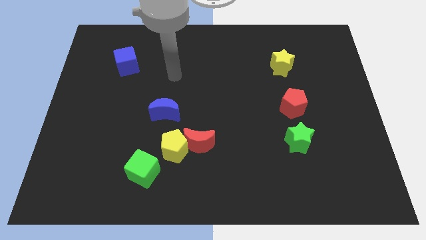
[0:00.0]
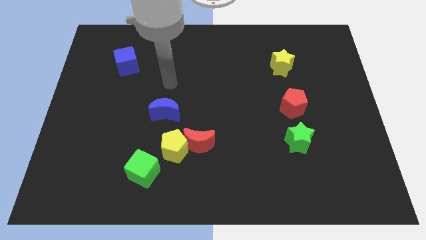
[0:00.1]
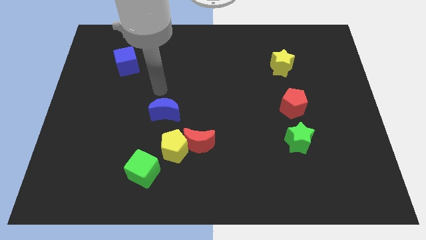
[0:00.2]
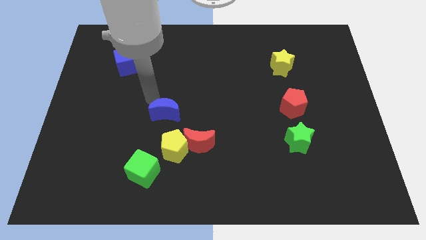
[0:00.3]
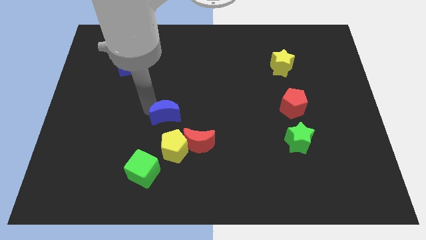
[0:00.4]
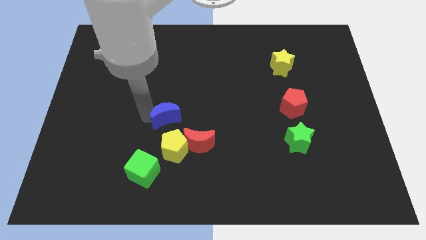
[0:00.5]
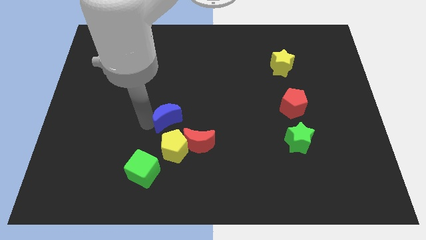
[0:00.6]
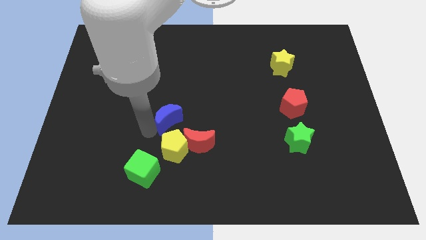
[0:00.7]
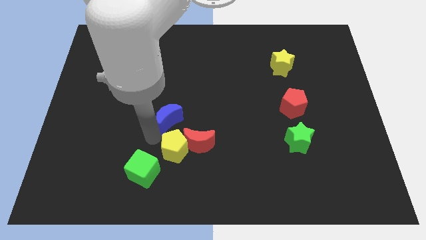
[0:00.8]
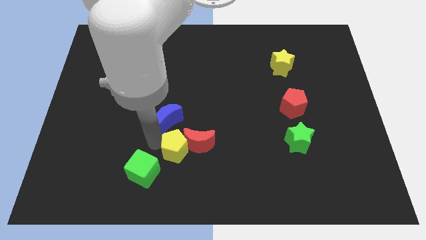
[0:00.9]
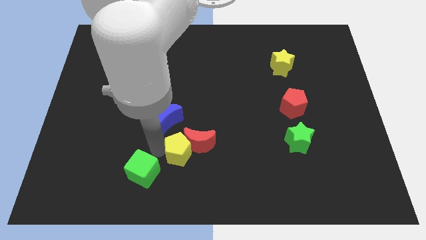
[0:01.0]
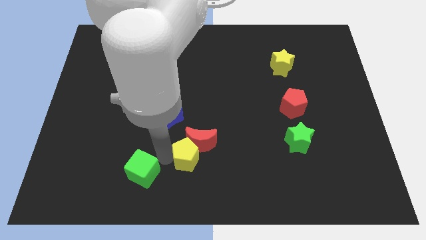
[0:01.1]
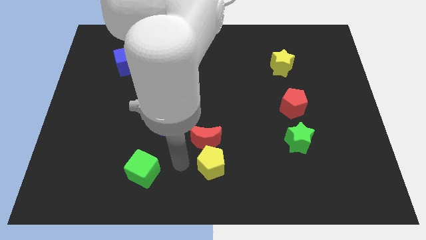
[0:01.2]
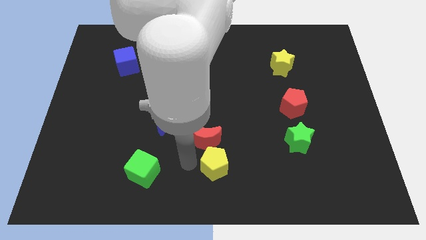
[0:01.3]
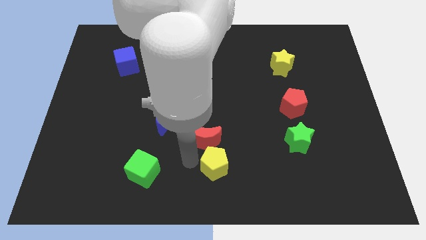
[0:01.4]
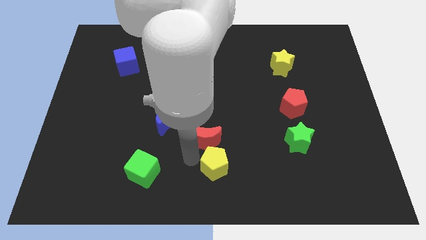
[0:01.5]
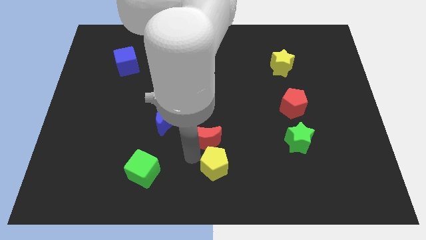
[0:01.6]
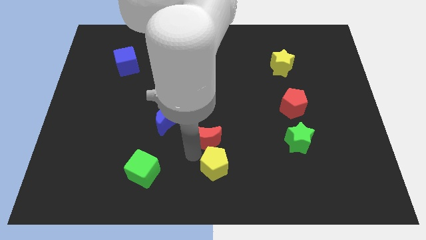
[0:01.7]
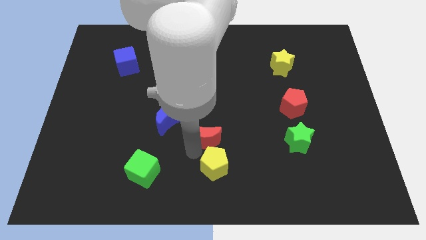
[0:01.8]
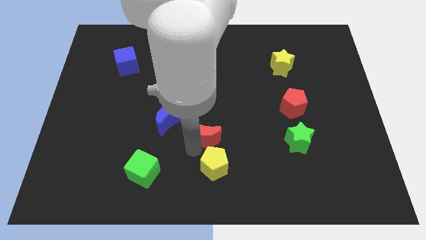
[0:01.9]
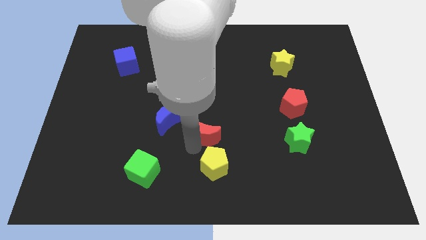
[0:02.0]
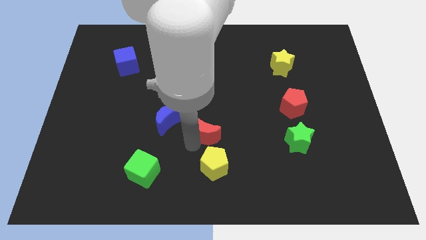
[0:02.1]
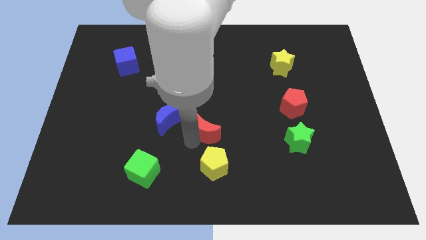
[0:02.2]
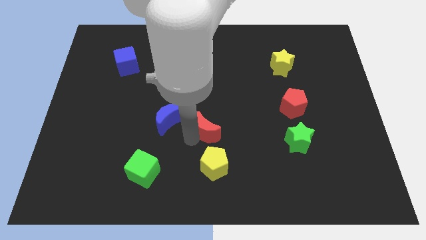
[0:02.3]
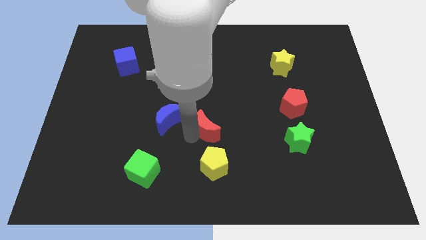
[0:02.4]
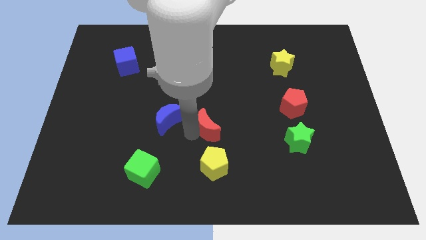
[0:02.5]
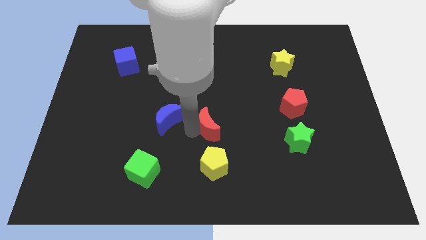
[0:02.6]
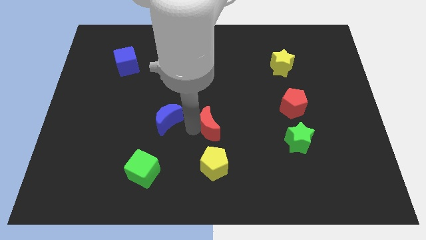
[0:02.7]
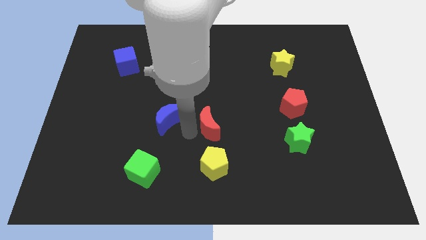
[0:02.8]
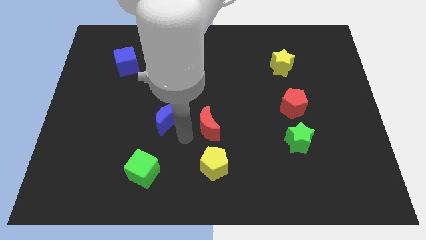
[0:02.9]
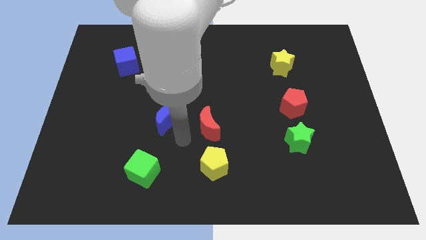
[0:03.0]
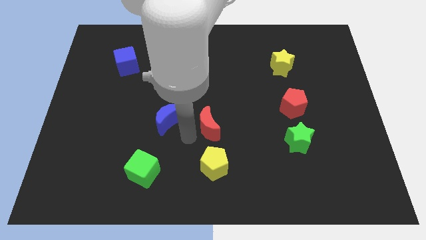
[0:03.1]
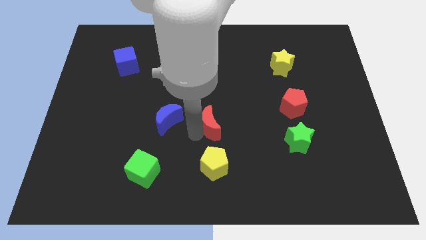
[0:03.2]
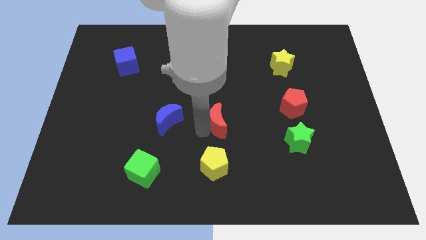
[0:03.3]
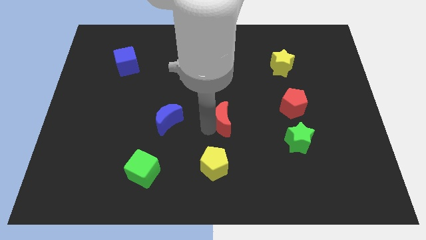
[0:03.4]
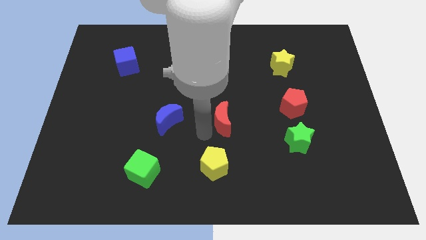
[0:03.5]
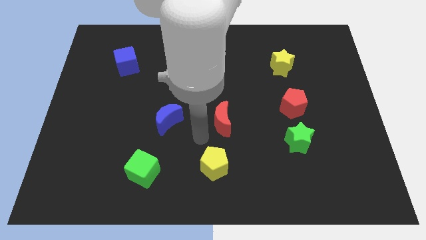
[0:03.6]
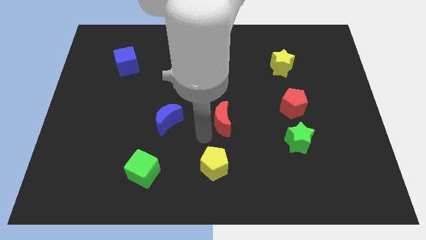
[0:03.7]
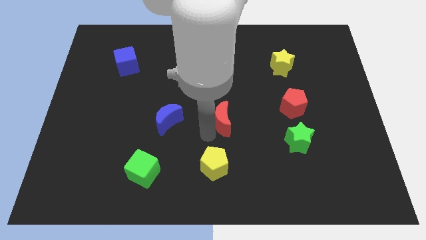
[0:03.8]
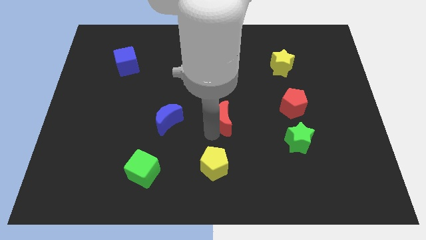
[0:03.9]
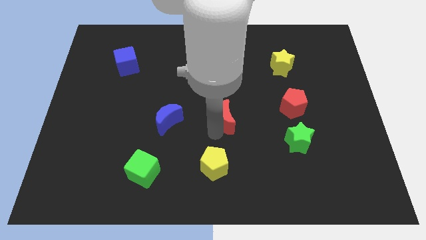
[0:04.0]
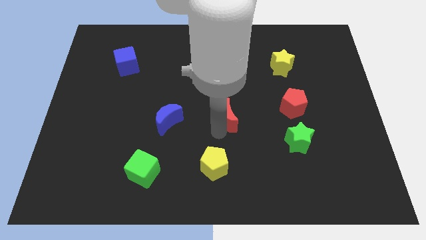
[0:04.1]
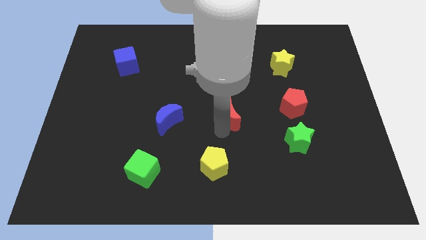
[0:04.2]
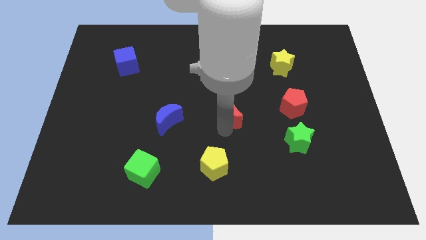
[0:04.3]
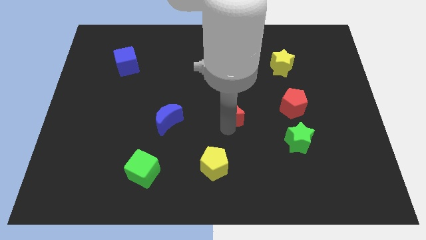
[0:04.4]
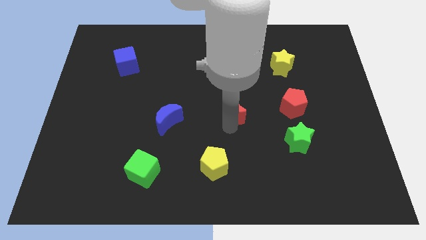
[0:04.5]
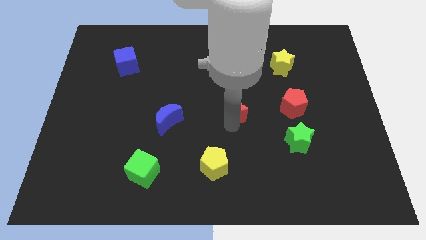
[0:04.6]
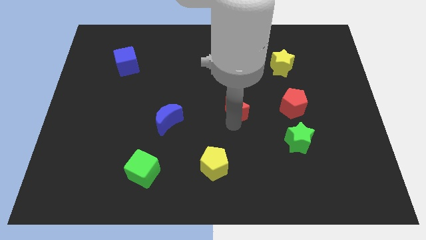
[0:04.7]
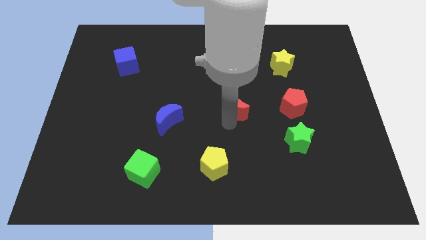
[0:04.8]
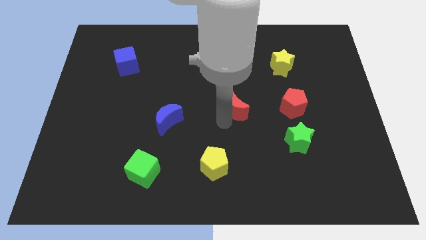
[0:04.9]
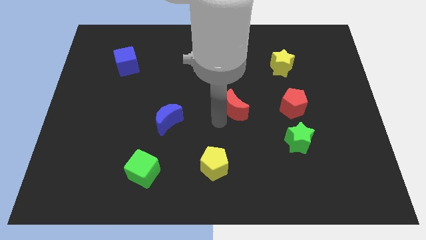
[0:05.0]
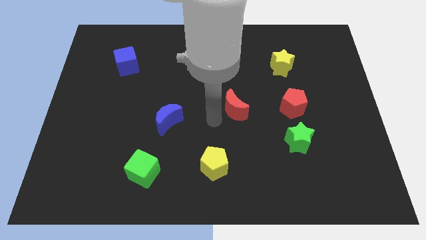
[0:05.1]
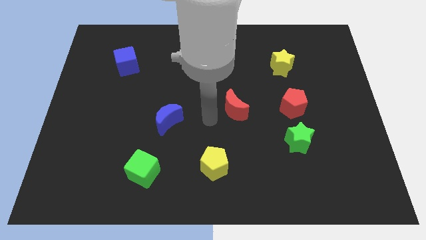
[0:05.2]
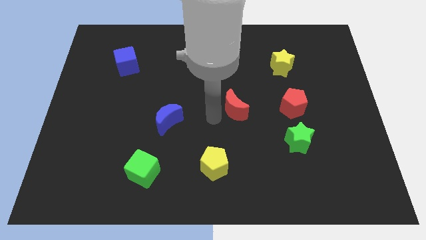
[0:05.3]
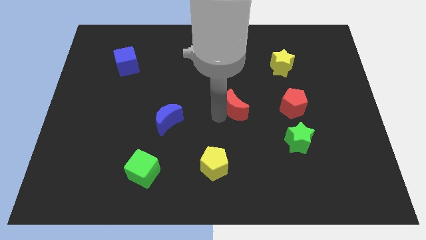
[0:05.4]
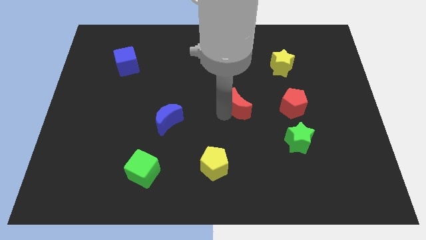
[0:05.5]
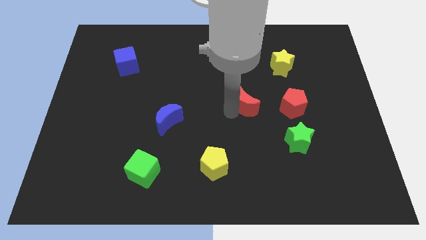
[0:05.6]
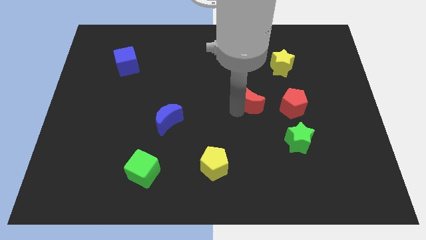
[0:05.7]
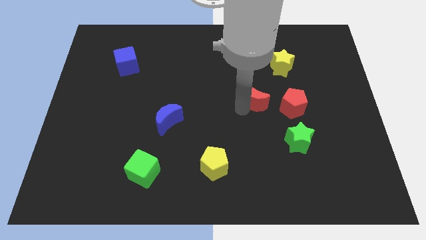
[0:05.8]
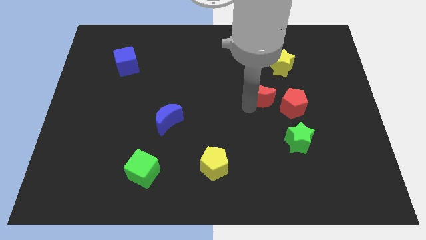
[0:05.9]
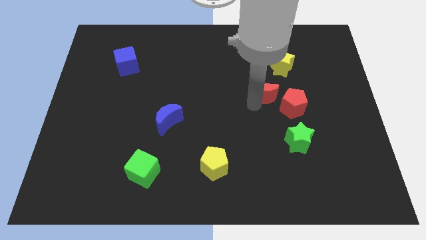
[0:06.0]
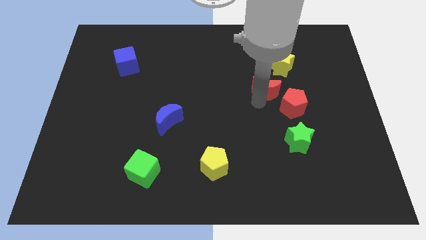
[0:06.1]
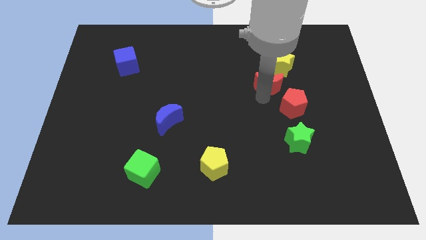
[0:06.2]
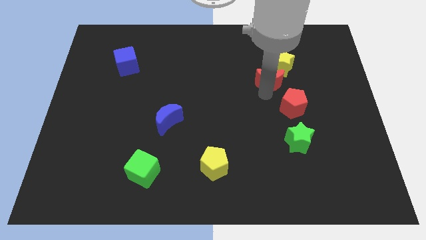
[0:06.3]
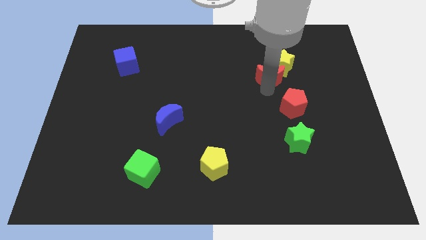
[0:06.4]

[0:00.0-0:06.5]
move the red moon towards the yellow star

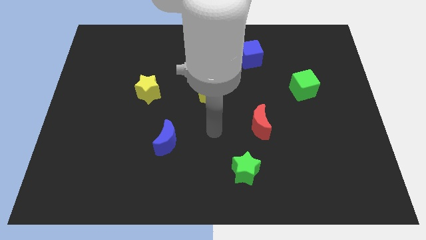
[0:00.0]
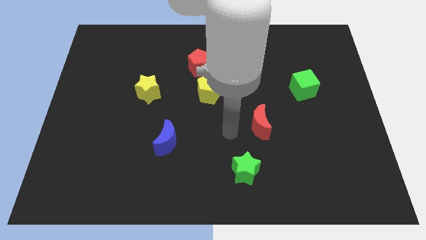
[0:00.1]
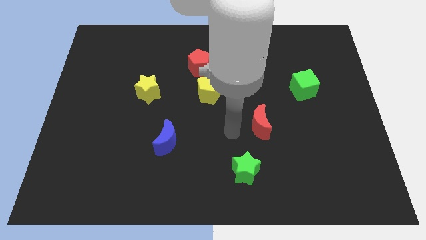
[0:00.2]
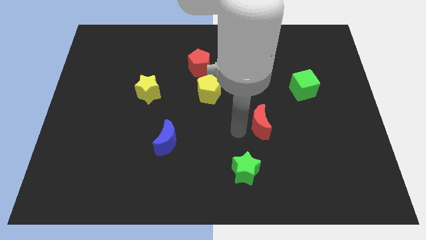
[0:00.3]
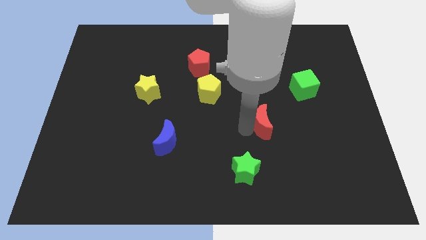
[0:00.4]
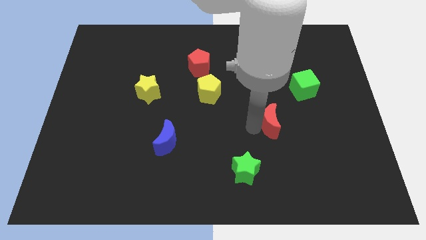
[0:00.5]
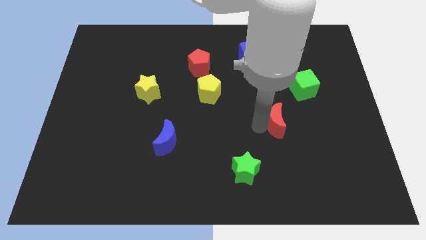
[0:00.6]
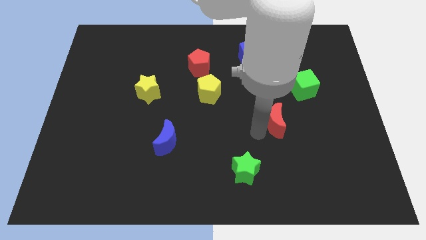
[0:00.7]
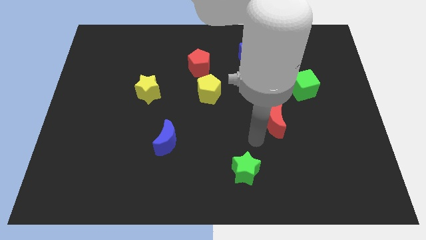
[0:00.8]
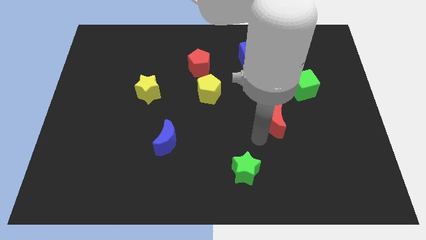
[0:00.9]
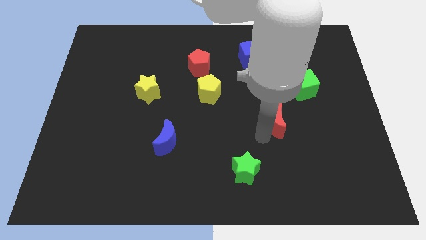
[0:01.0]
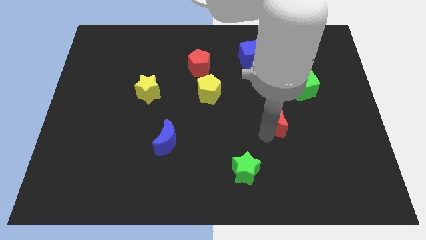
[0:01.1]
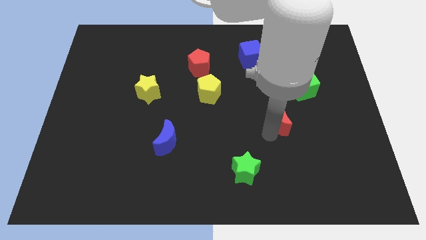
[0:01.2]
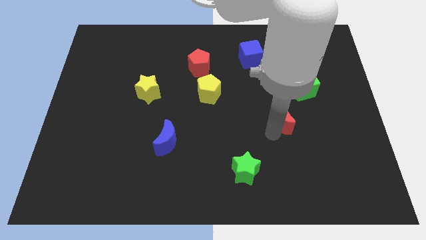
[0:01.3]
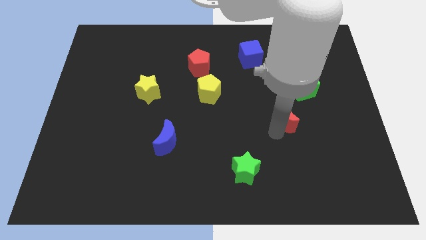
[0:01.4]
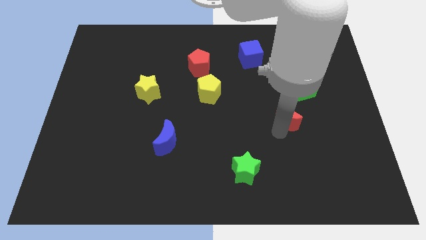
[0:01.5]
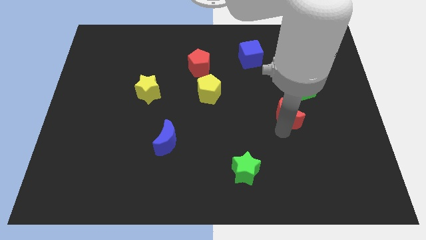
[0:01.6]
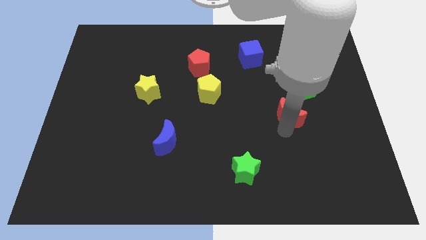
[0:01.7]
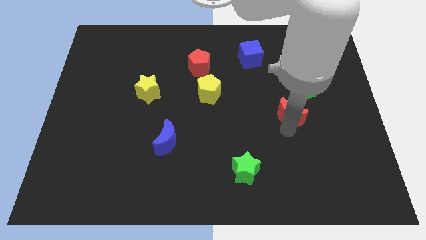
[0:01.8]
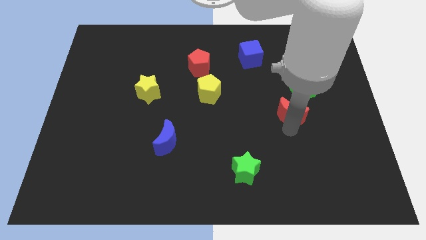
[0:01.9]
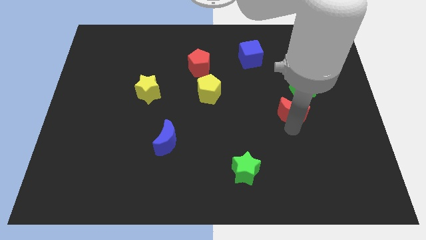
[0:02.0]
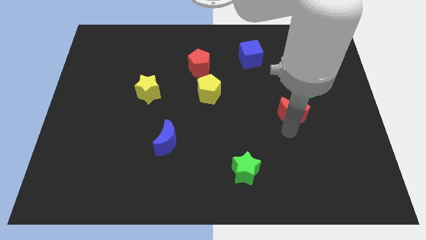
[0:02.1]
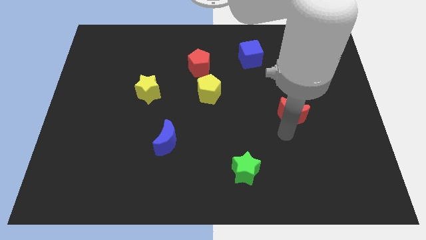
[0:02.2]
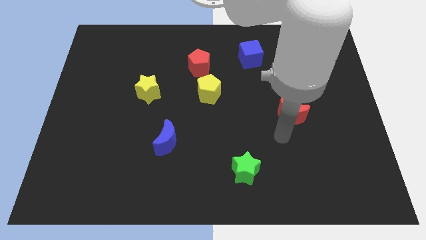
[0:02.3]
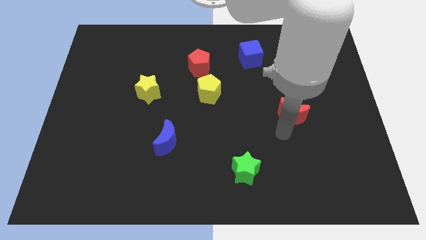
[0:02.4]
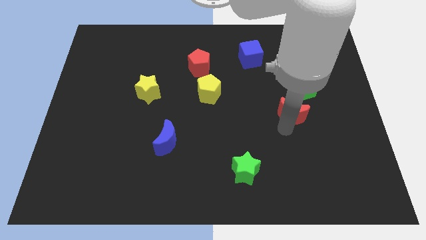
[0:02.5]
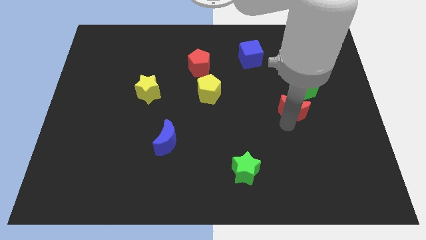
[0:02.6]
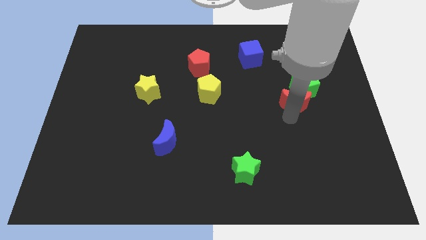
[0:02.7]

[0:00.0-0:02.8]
move the red moon next to the green cube
